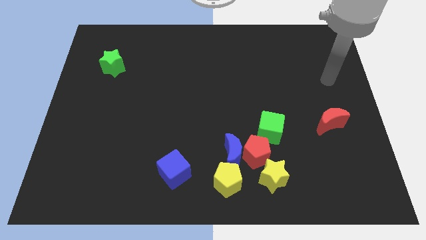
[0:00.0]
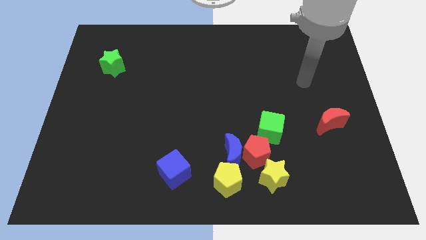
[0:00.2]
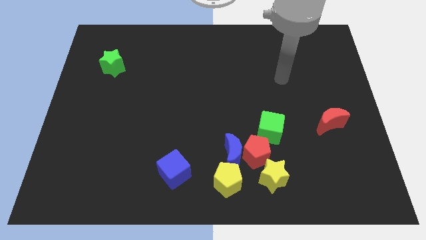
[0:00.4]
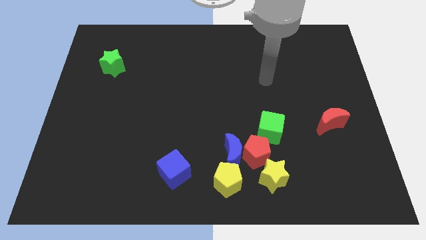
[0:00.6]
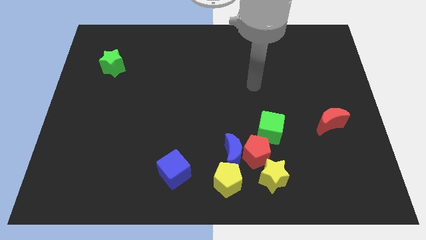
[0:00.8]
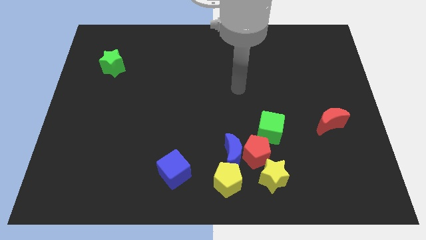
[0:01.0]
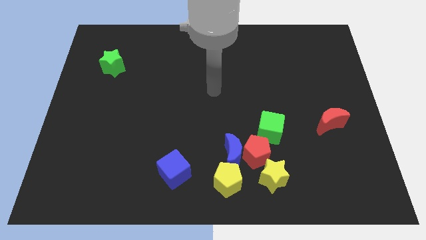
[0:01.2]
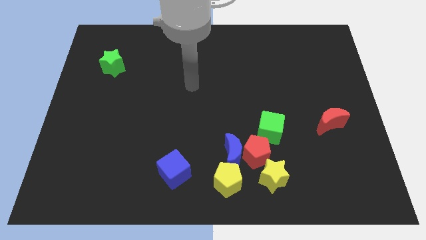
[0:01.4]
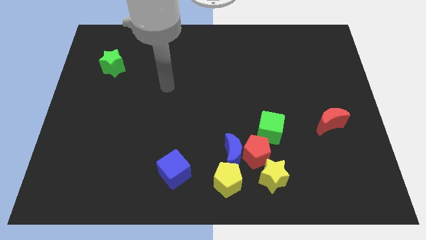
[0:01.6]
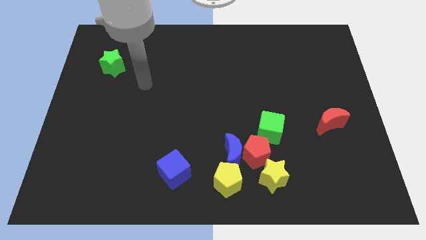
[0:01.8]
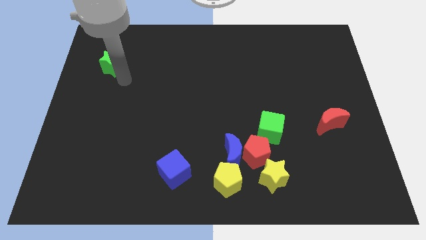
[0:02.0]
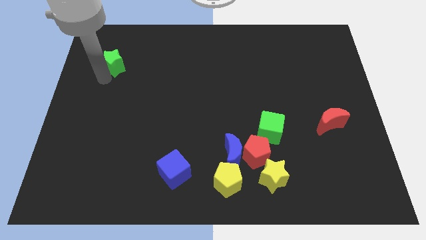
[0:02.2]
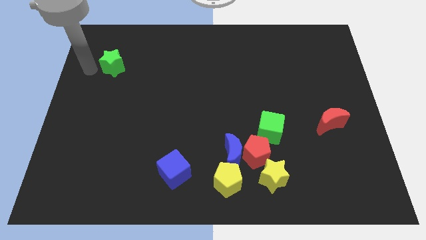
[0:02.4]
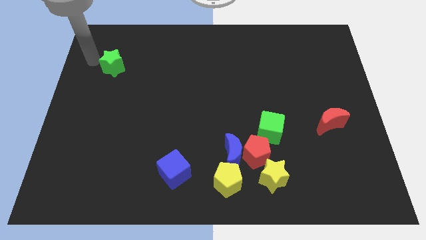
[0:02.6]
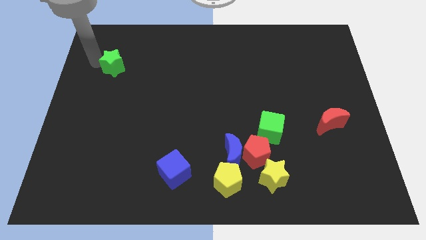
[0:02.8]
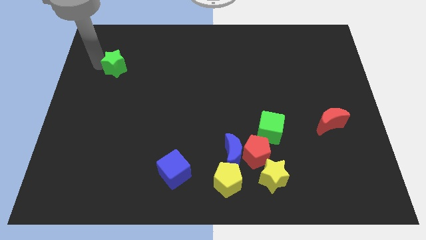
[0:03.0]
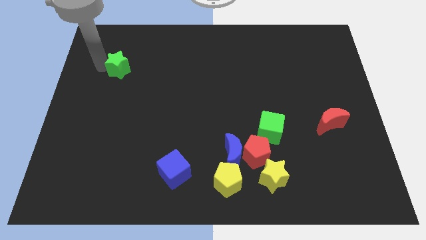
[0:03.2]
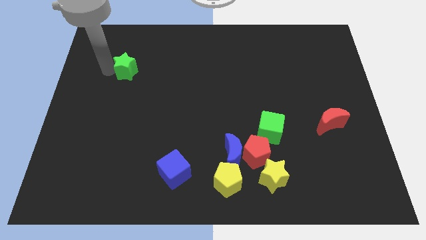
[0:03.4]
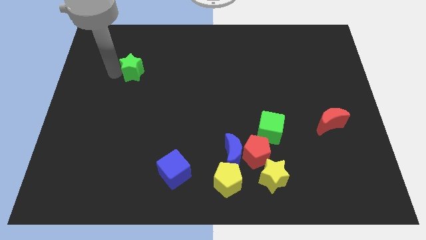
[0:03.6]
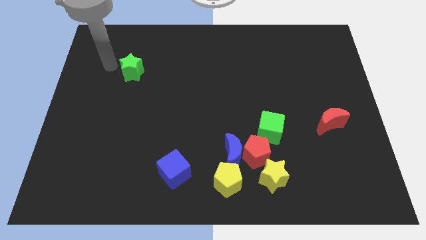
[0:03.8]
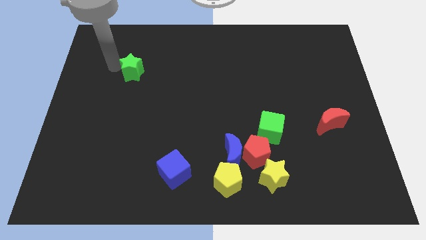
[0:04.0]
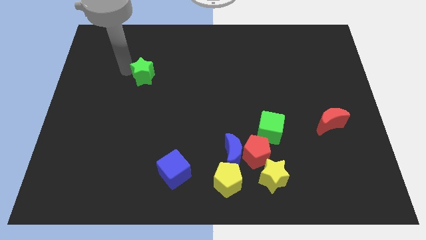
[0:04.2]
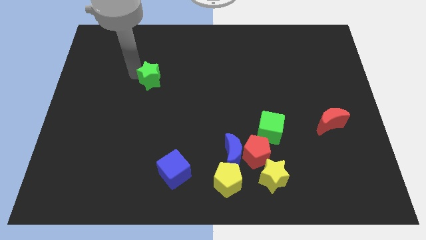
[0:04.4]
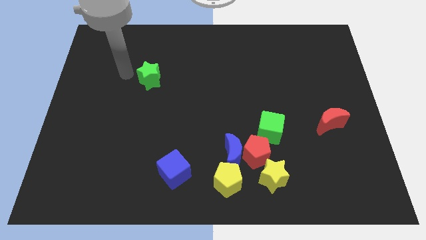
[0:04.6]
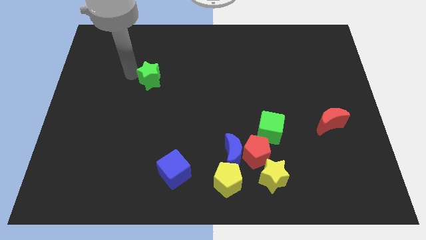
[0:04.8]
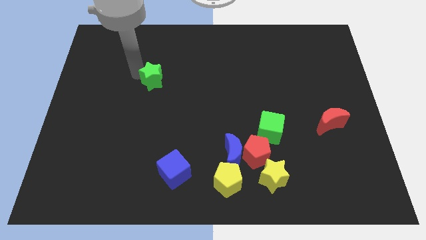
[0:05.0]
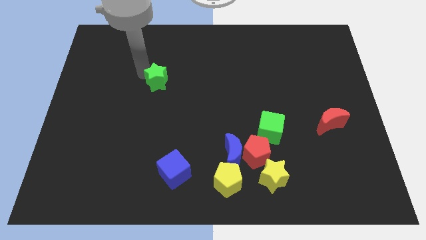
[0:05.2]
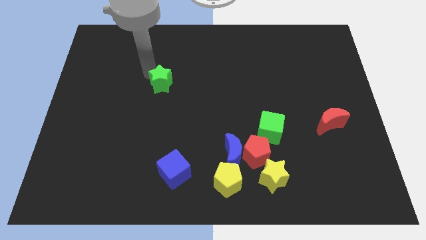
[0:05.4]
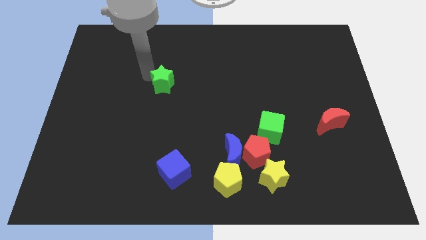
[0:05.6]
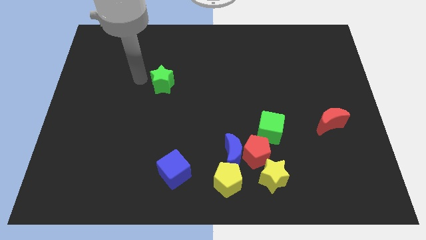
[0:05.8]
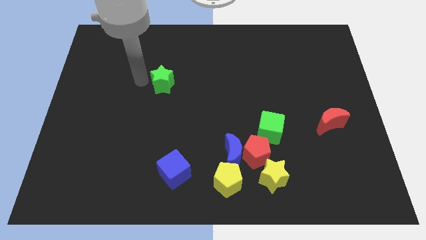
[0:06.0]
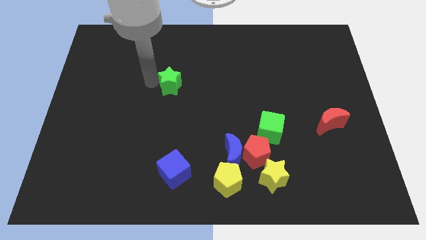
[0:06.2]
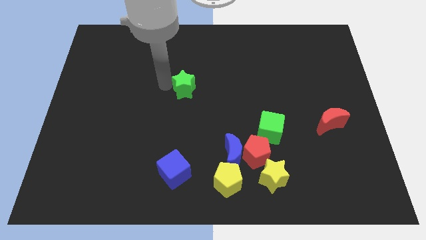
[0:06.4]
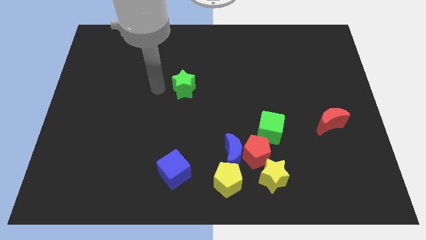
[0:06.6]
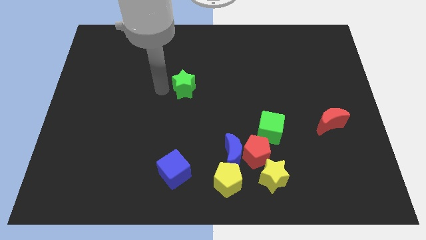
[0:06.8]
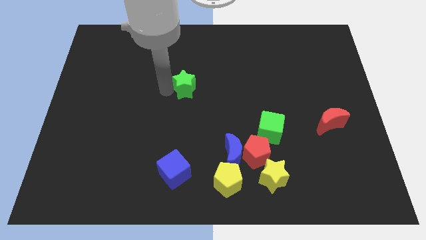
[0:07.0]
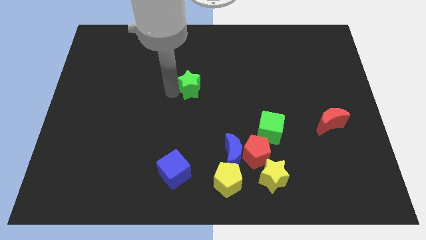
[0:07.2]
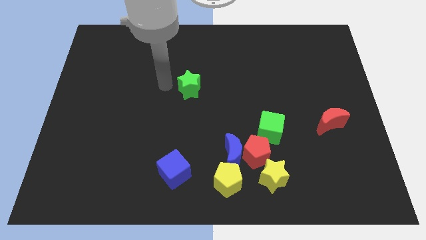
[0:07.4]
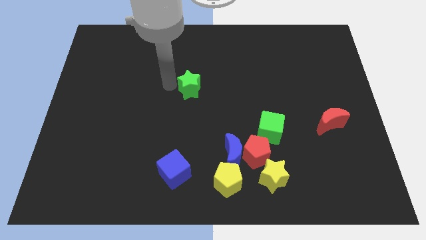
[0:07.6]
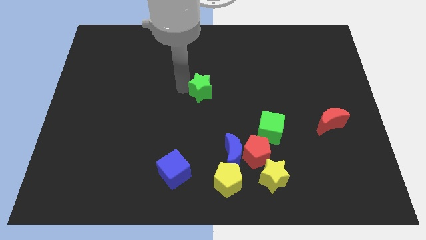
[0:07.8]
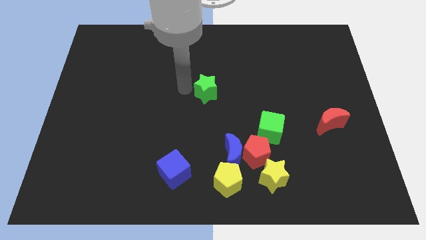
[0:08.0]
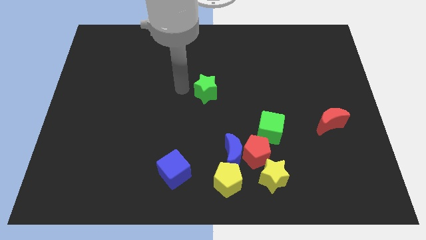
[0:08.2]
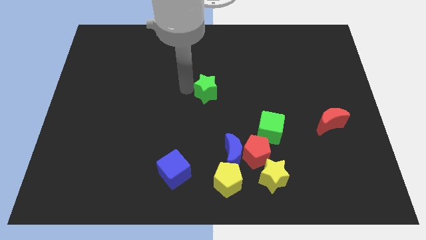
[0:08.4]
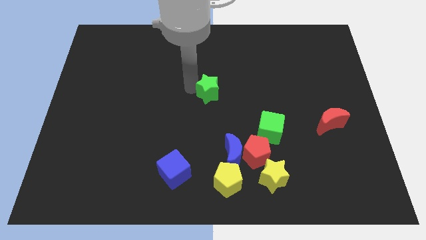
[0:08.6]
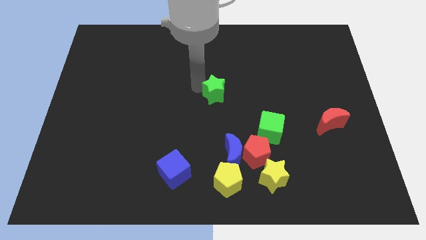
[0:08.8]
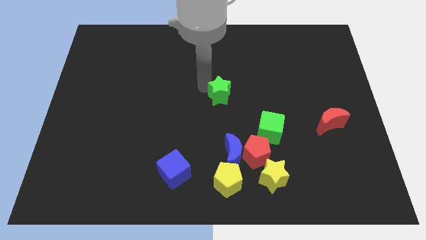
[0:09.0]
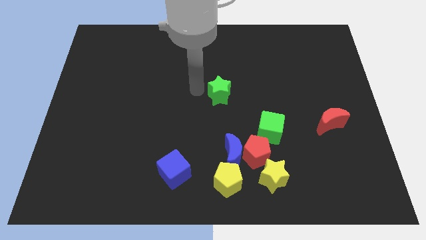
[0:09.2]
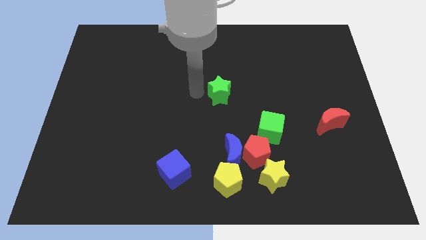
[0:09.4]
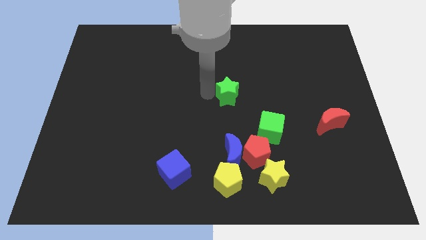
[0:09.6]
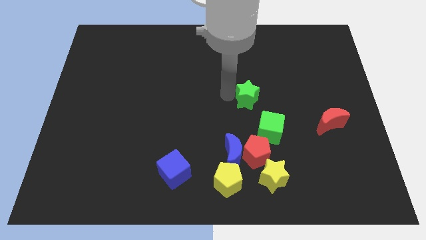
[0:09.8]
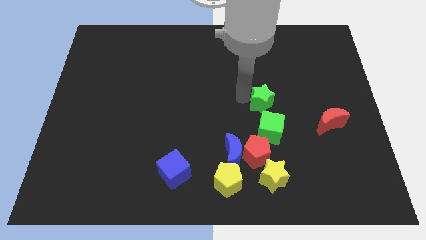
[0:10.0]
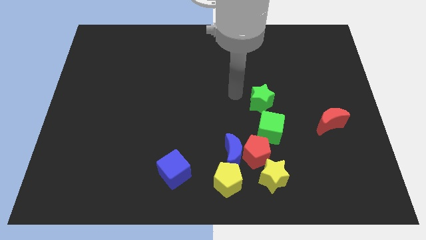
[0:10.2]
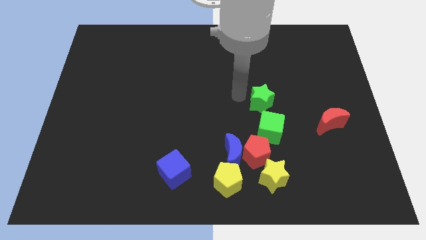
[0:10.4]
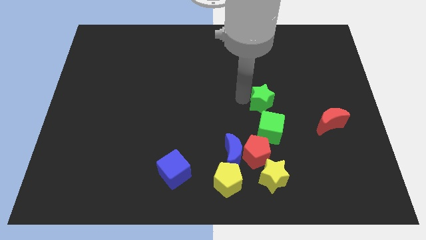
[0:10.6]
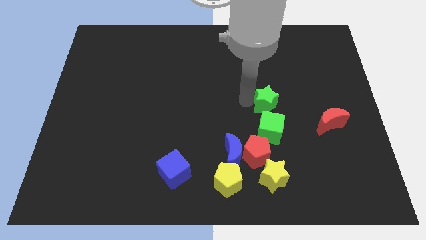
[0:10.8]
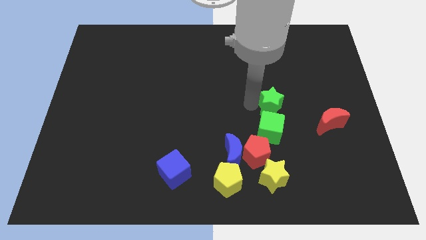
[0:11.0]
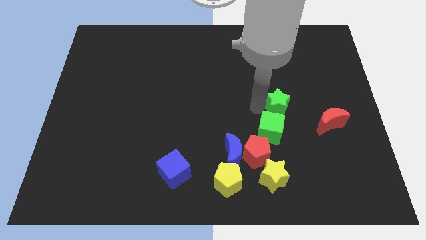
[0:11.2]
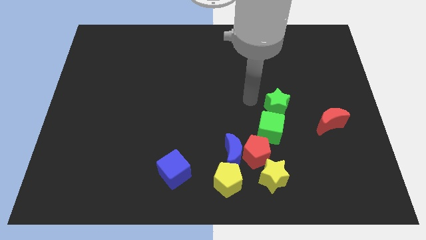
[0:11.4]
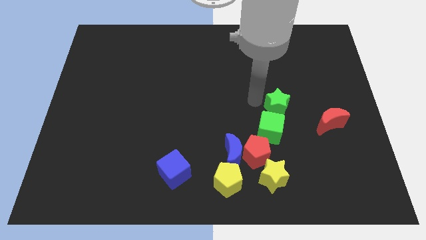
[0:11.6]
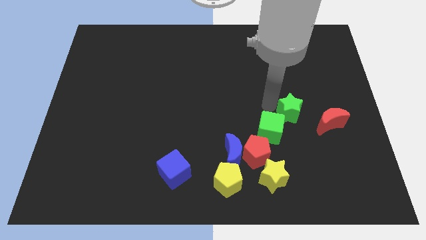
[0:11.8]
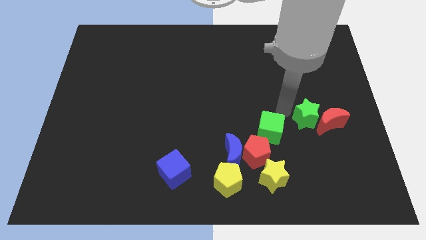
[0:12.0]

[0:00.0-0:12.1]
push the green star to the red moon

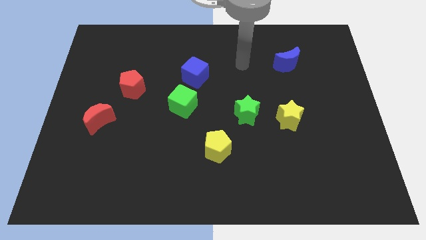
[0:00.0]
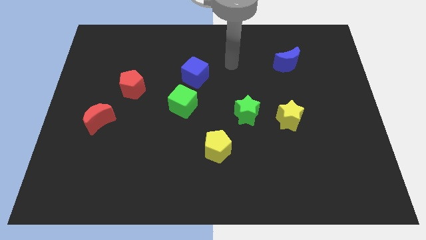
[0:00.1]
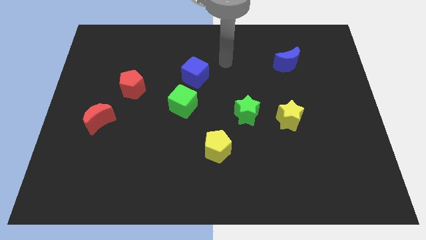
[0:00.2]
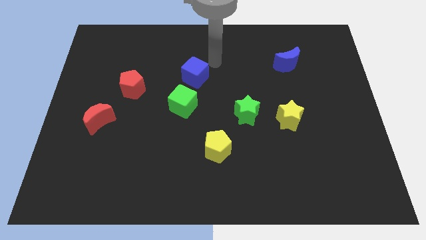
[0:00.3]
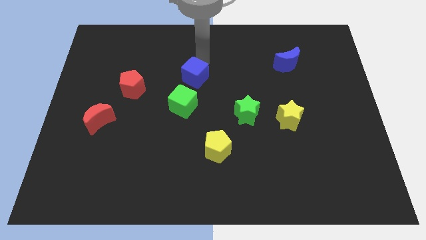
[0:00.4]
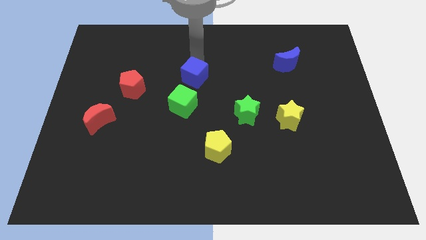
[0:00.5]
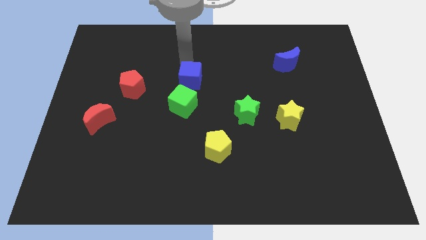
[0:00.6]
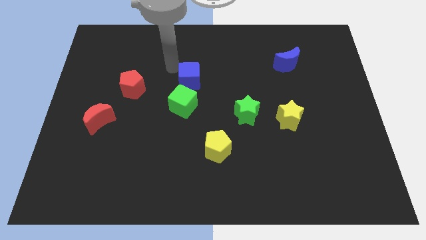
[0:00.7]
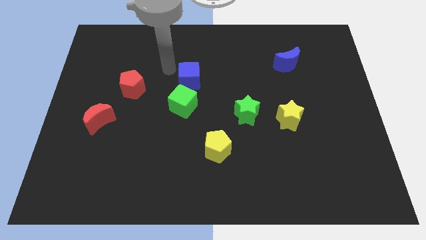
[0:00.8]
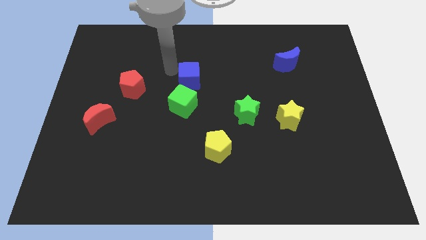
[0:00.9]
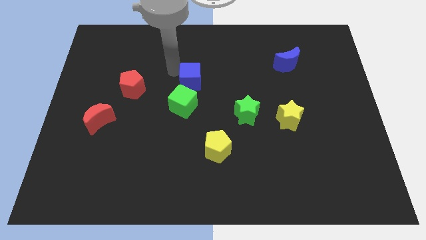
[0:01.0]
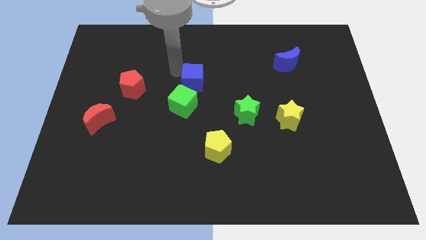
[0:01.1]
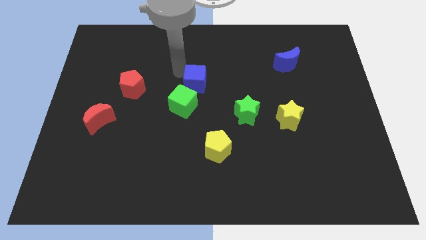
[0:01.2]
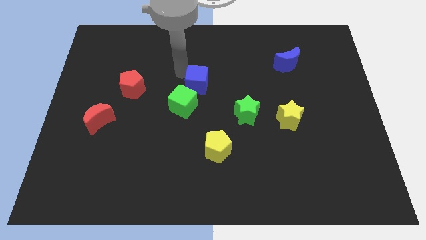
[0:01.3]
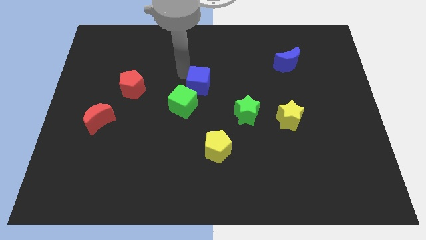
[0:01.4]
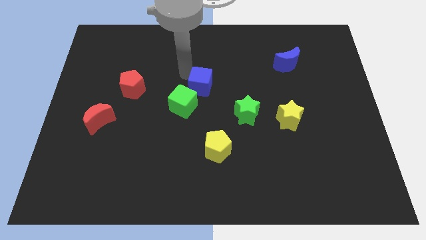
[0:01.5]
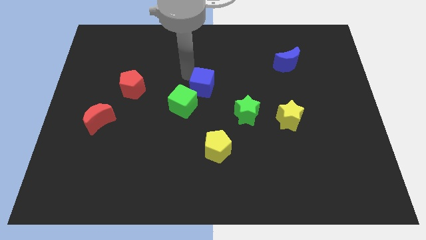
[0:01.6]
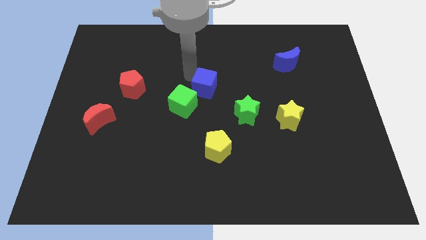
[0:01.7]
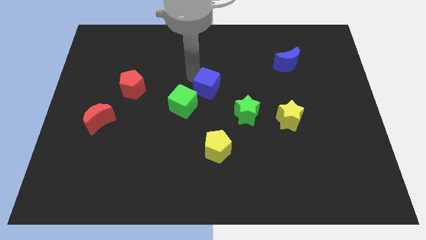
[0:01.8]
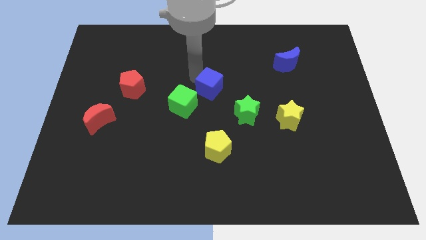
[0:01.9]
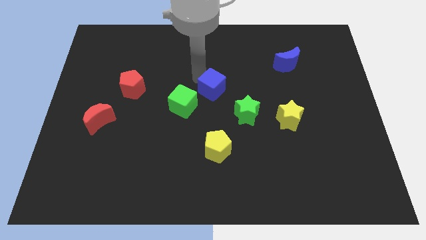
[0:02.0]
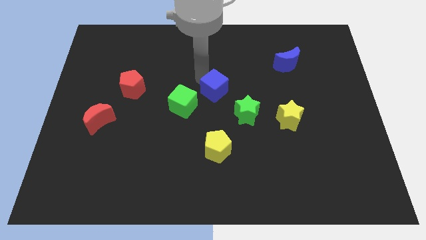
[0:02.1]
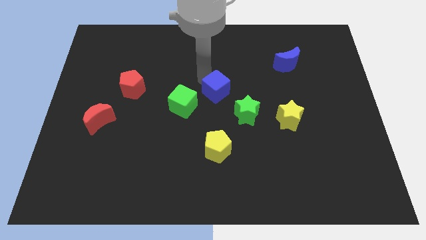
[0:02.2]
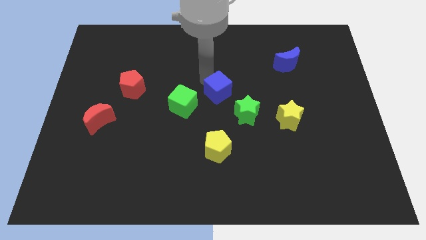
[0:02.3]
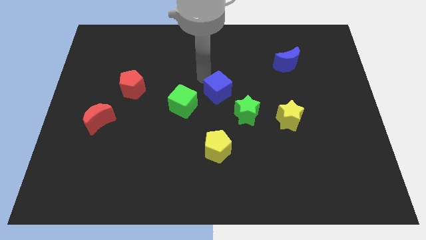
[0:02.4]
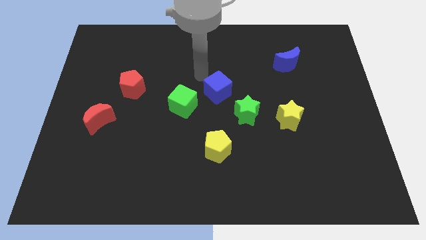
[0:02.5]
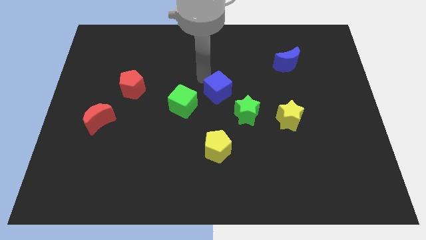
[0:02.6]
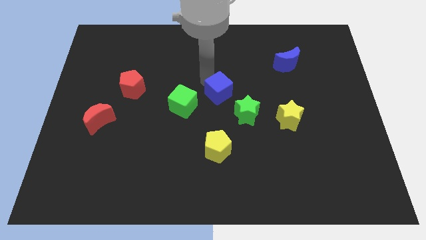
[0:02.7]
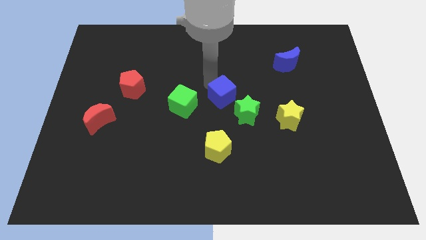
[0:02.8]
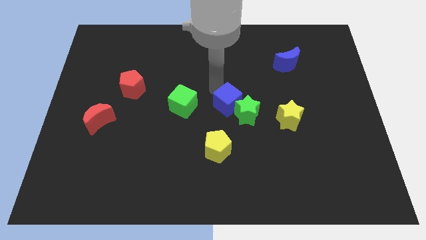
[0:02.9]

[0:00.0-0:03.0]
put the blue cube next to the green star
